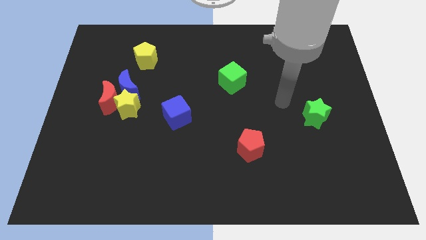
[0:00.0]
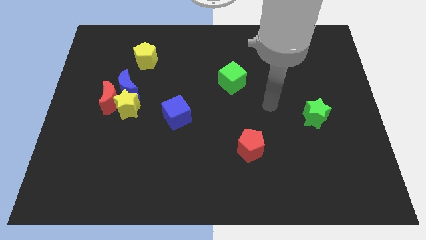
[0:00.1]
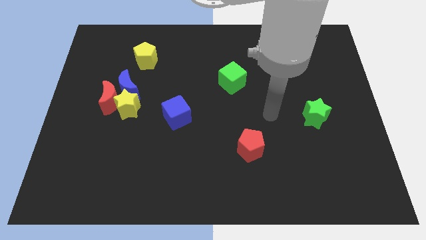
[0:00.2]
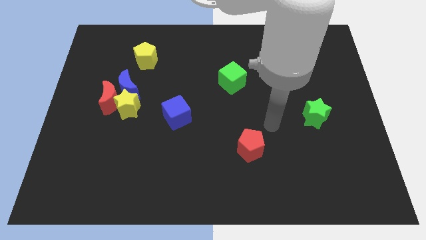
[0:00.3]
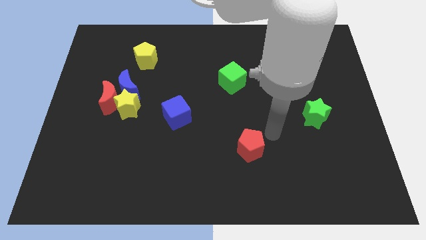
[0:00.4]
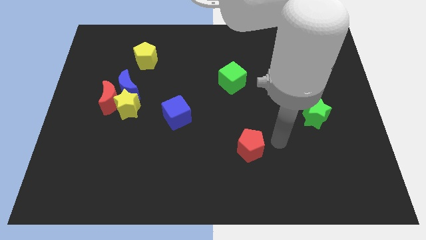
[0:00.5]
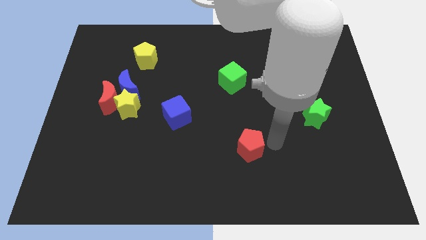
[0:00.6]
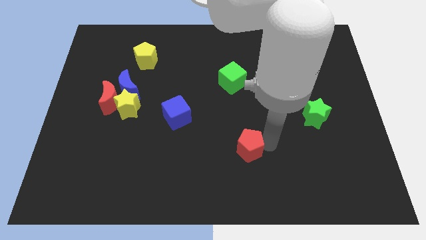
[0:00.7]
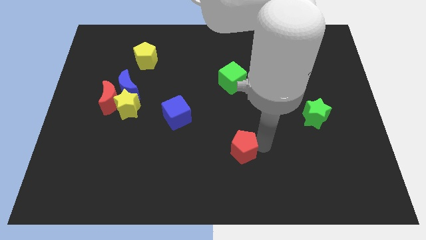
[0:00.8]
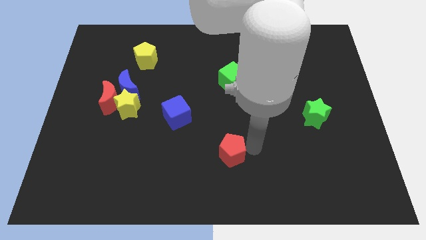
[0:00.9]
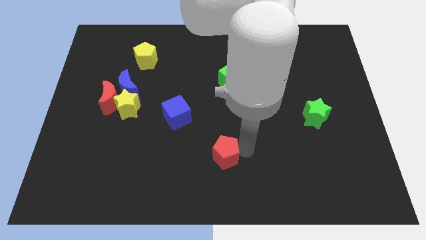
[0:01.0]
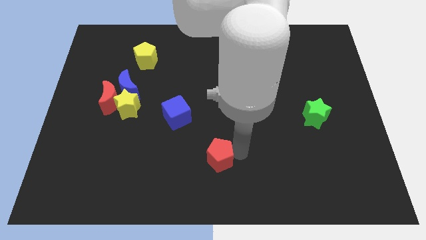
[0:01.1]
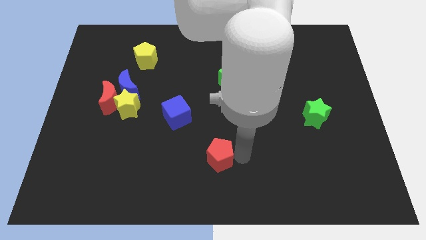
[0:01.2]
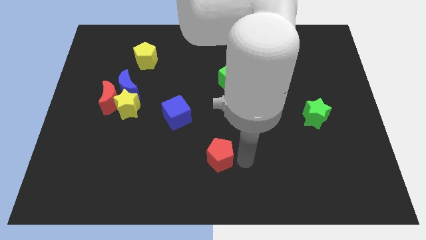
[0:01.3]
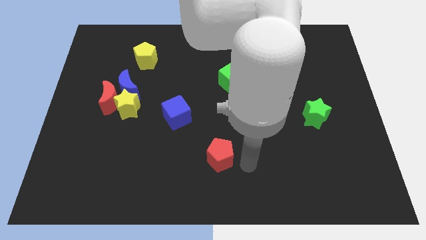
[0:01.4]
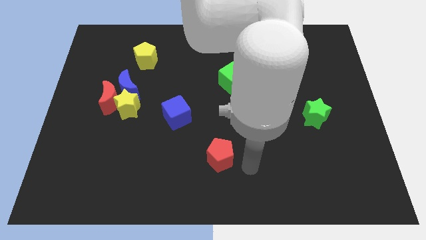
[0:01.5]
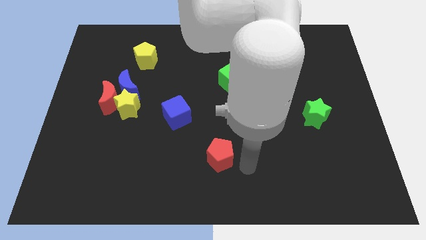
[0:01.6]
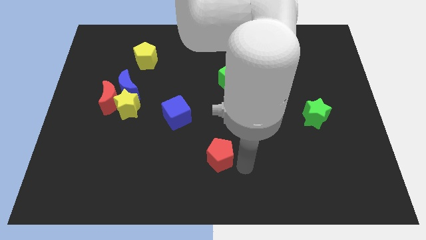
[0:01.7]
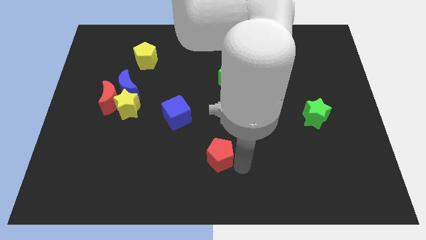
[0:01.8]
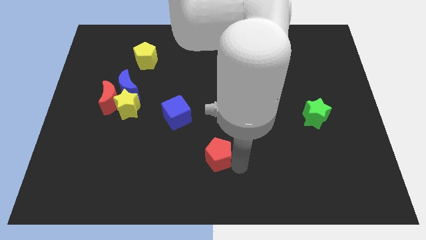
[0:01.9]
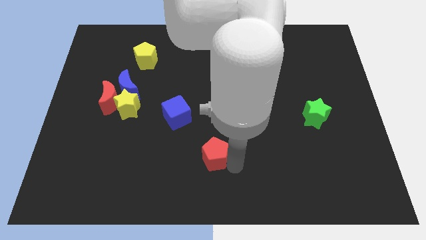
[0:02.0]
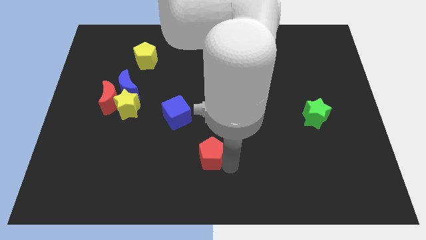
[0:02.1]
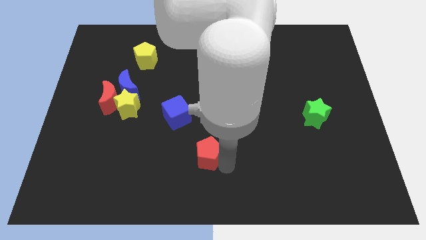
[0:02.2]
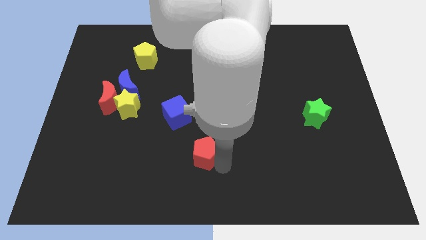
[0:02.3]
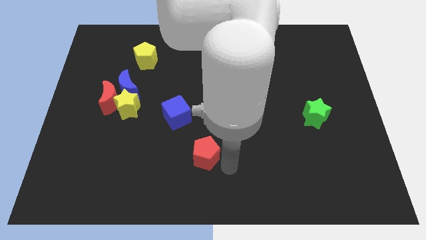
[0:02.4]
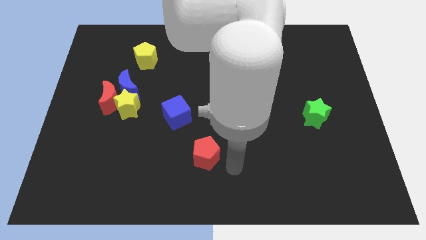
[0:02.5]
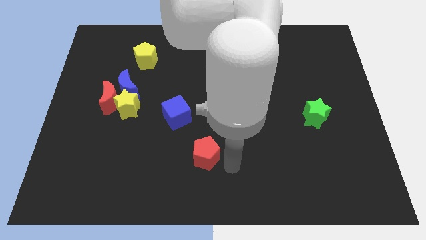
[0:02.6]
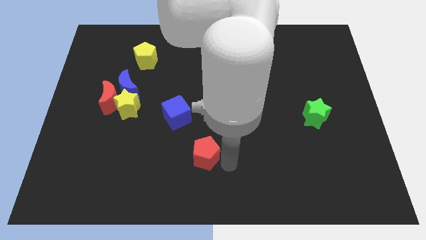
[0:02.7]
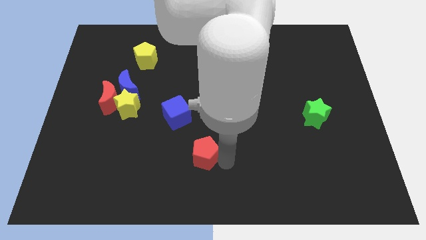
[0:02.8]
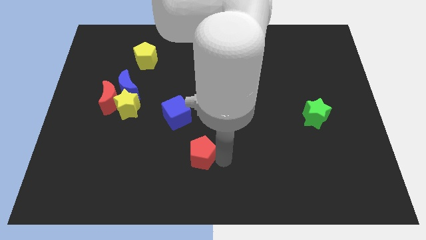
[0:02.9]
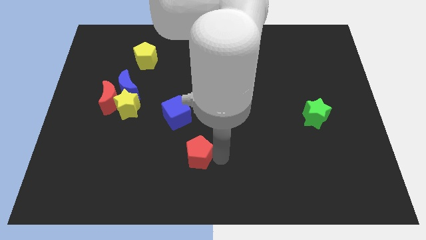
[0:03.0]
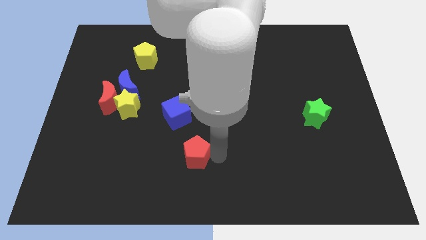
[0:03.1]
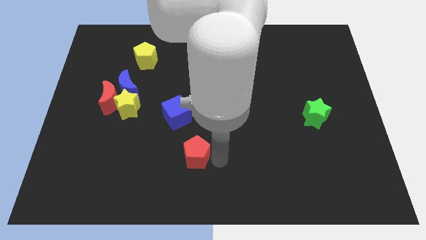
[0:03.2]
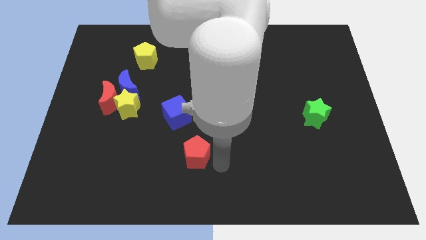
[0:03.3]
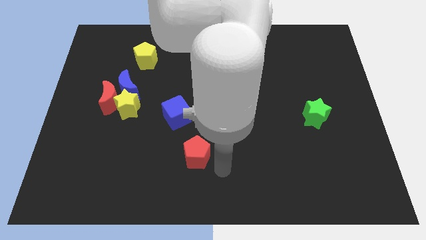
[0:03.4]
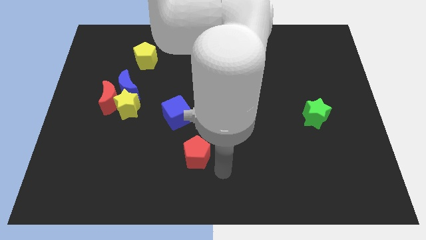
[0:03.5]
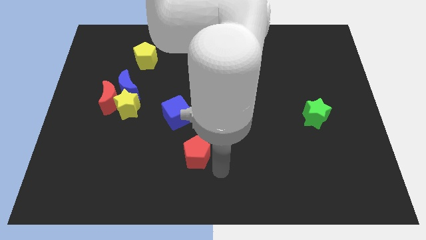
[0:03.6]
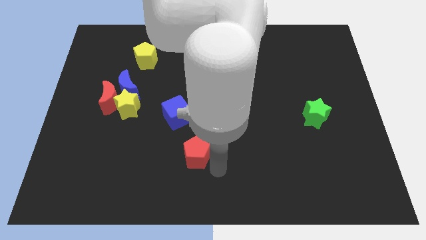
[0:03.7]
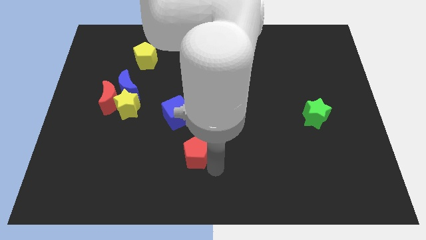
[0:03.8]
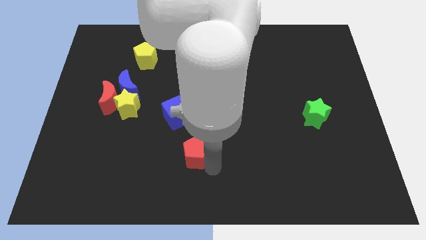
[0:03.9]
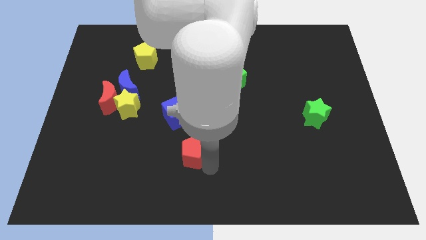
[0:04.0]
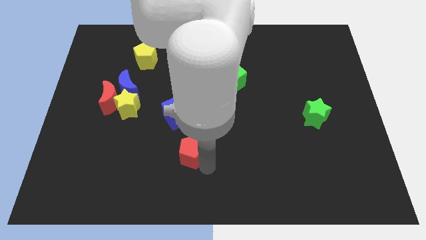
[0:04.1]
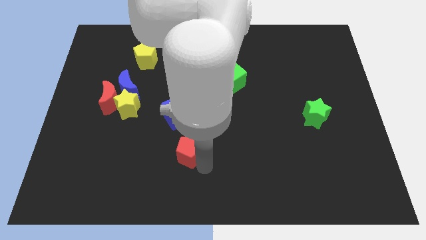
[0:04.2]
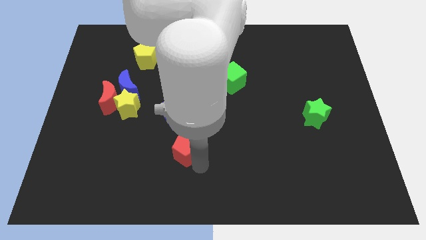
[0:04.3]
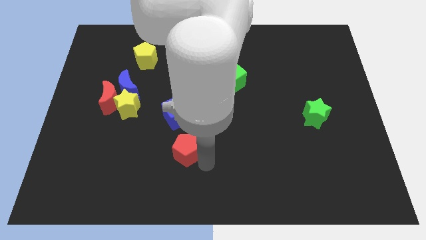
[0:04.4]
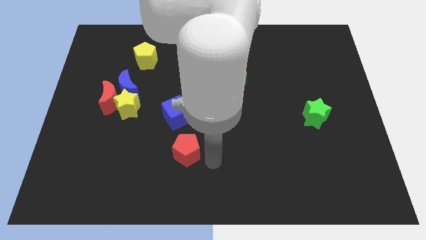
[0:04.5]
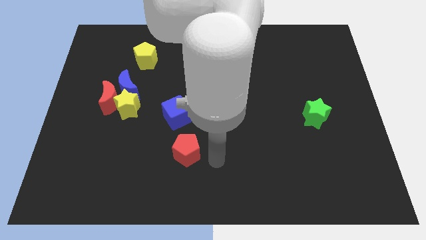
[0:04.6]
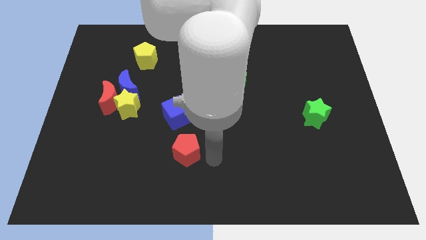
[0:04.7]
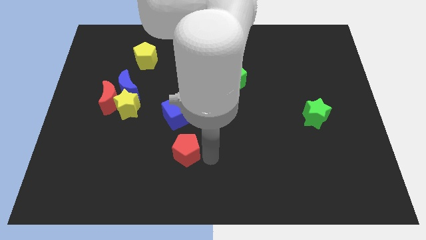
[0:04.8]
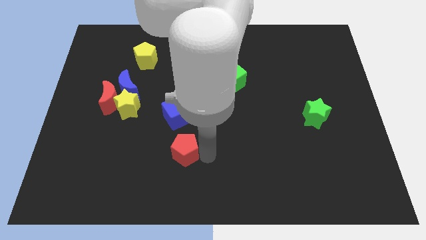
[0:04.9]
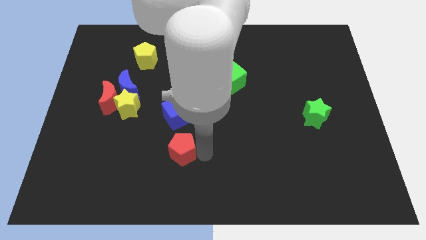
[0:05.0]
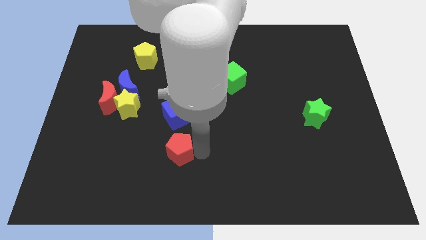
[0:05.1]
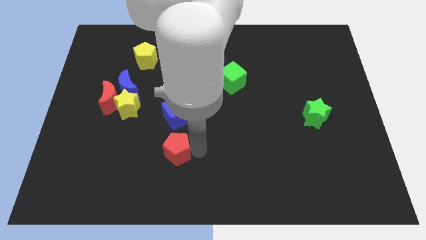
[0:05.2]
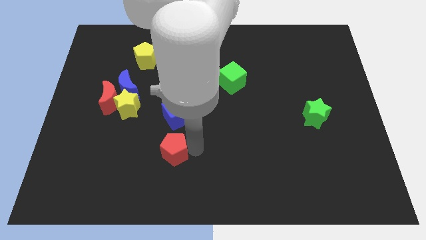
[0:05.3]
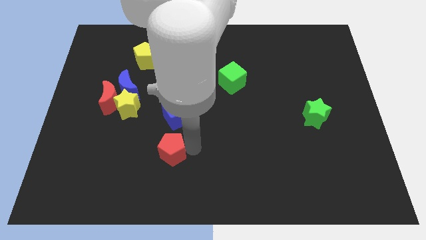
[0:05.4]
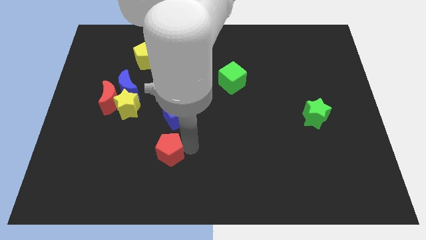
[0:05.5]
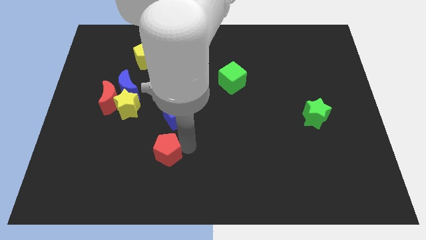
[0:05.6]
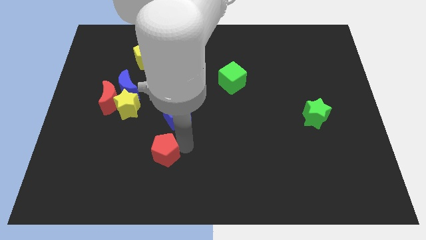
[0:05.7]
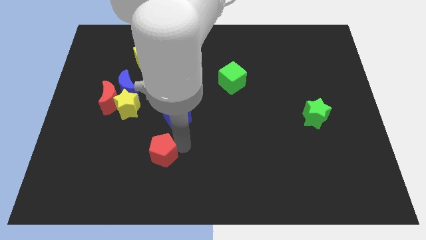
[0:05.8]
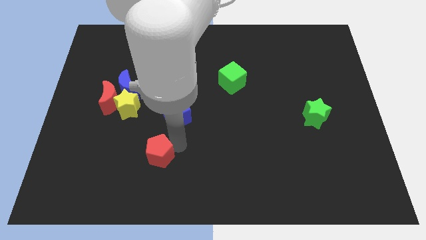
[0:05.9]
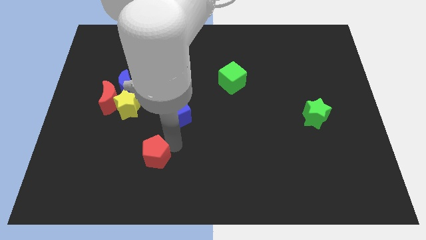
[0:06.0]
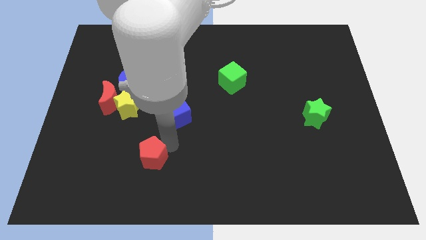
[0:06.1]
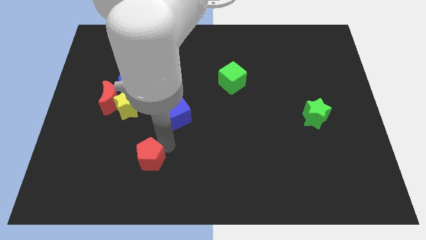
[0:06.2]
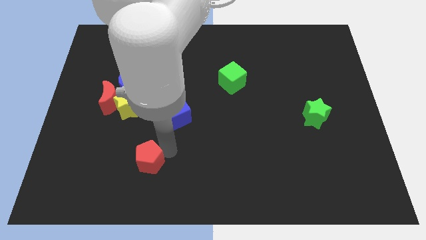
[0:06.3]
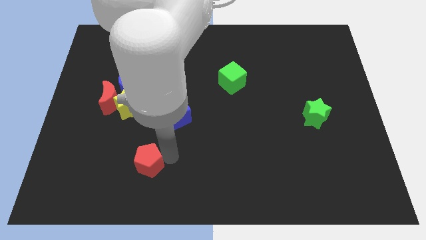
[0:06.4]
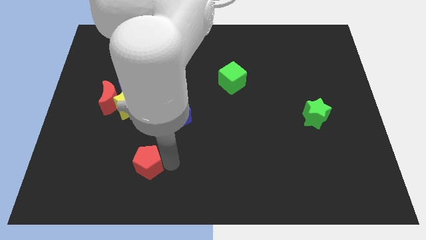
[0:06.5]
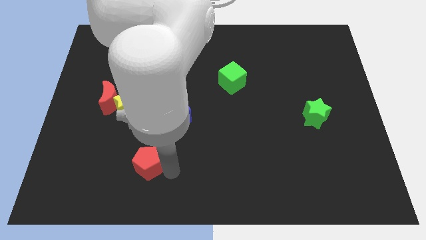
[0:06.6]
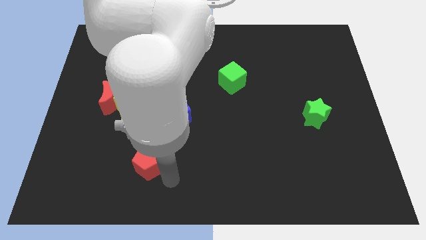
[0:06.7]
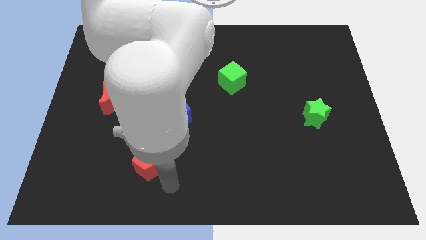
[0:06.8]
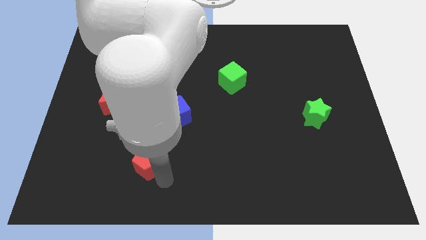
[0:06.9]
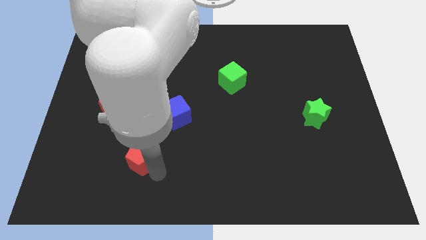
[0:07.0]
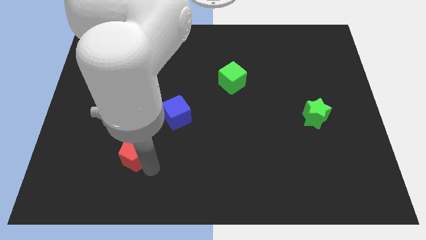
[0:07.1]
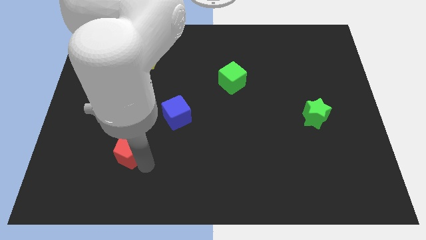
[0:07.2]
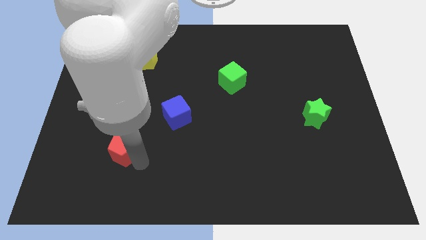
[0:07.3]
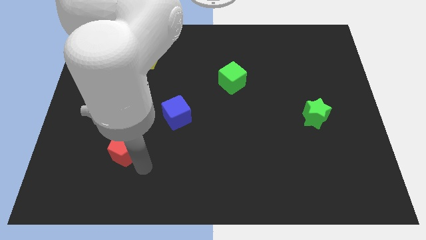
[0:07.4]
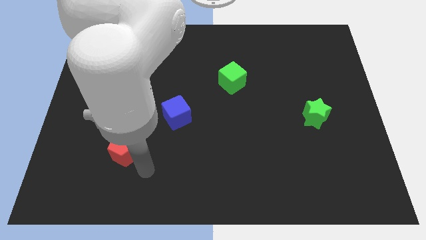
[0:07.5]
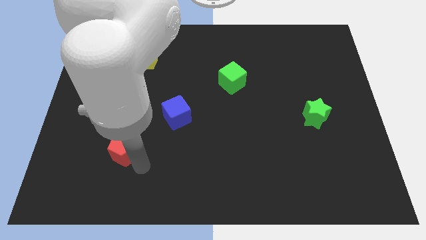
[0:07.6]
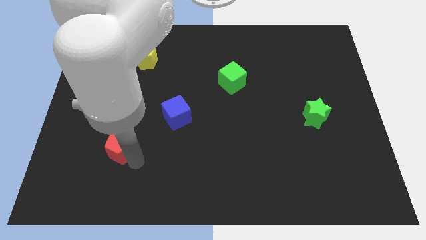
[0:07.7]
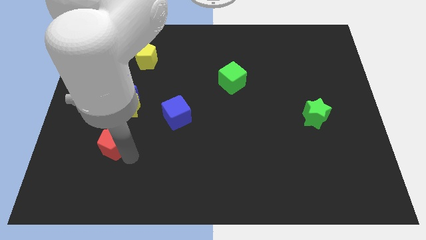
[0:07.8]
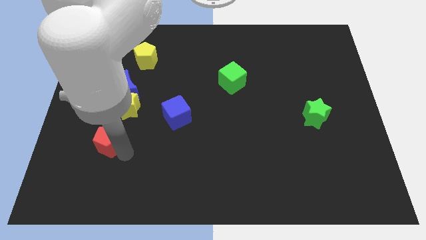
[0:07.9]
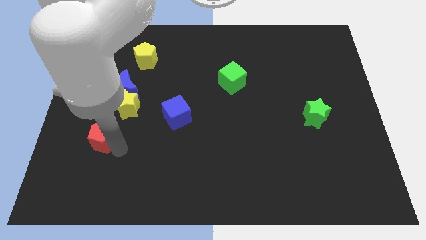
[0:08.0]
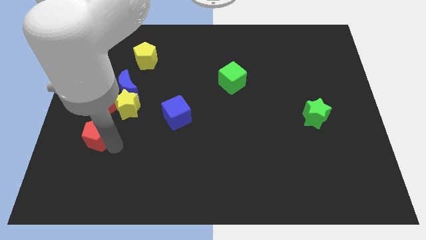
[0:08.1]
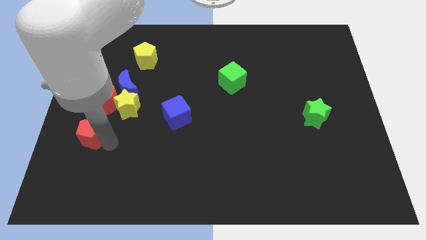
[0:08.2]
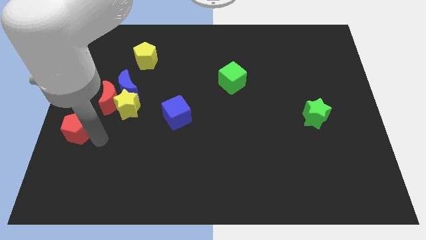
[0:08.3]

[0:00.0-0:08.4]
slide the red pentagon to the left side of the board
